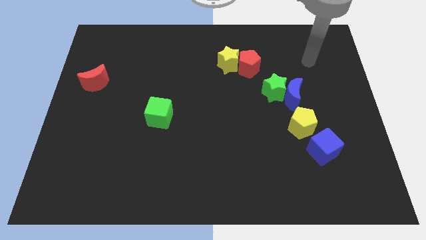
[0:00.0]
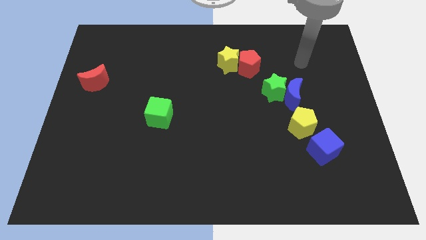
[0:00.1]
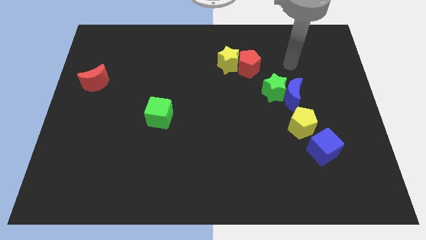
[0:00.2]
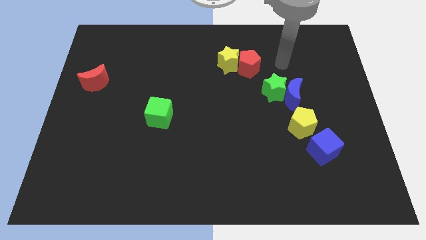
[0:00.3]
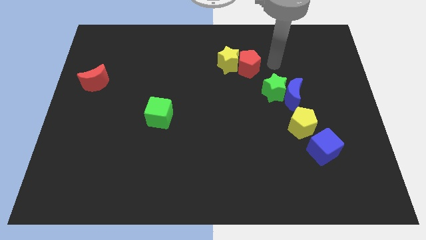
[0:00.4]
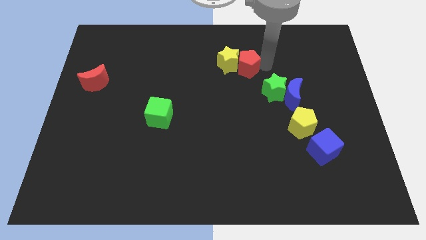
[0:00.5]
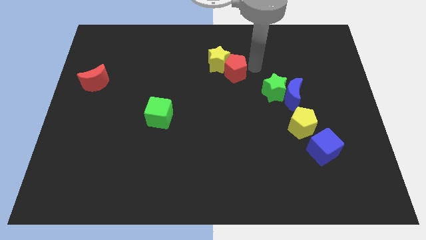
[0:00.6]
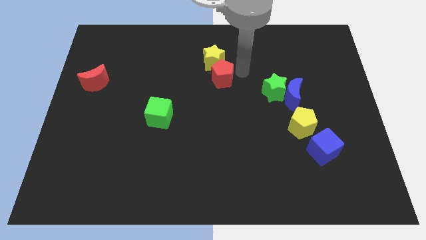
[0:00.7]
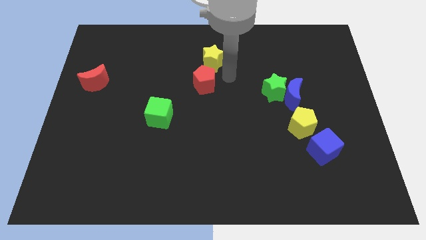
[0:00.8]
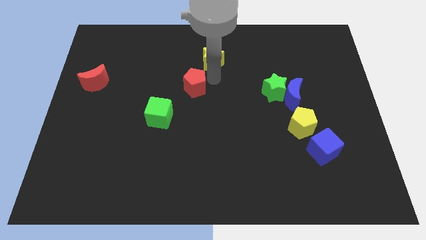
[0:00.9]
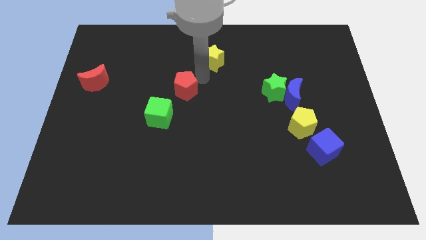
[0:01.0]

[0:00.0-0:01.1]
pull the yellow star apart from the red pentagon

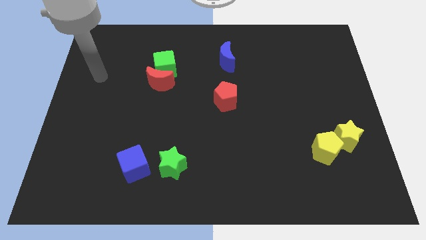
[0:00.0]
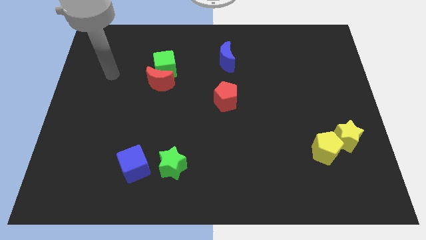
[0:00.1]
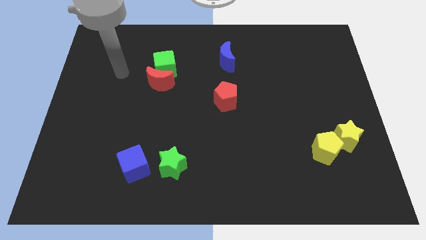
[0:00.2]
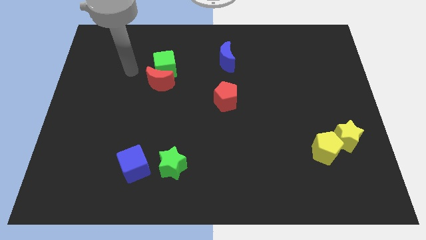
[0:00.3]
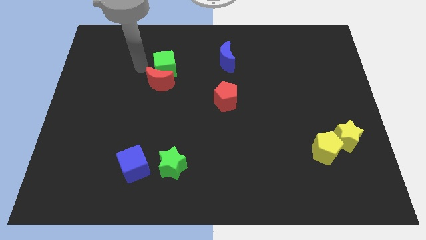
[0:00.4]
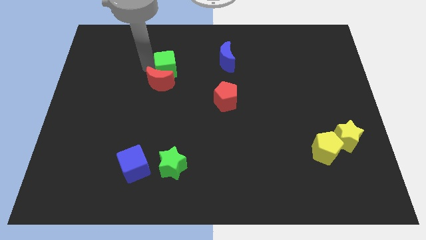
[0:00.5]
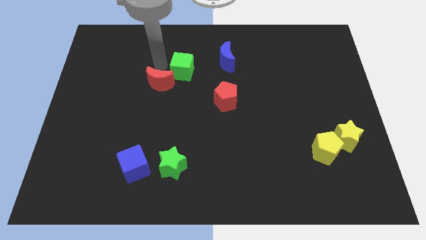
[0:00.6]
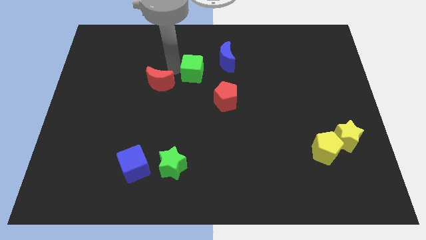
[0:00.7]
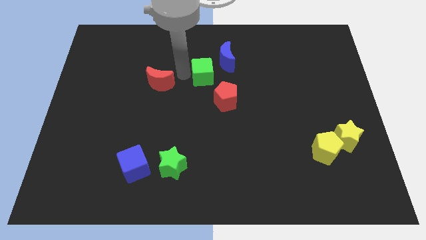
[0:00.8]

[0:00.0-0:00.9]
separate the red moon from the green cube

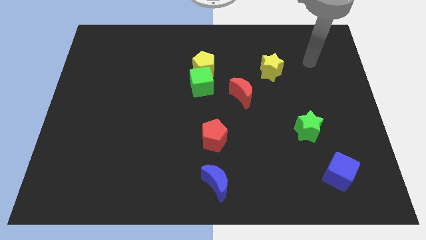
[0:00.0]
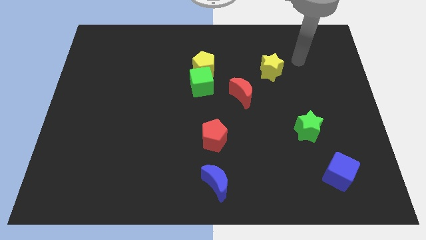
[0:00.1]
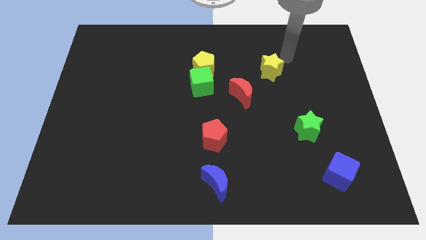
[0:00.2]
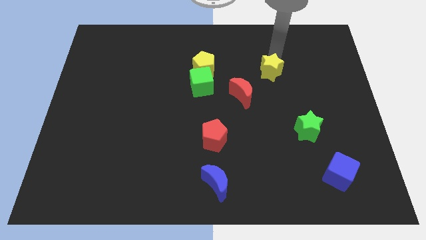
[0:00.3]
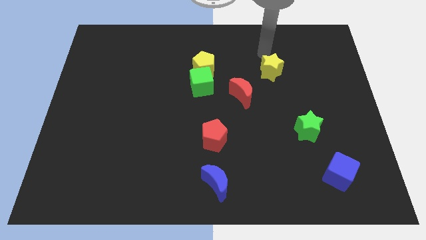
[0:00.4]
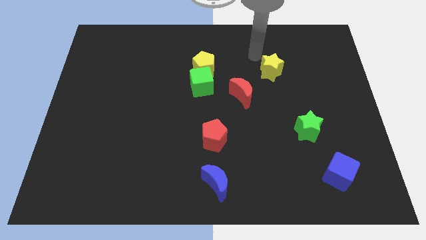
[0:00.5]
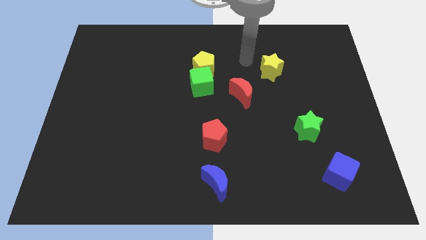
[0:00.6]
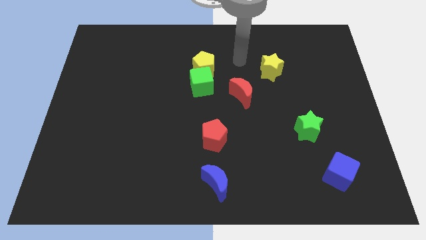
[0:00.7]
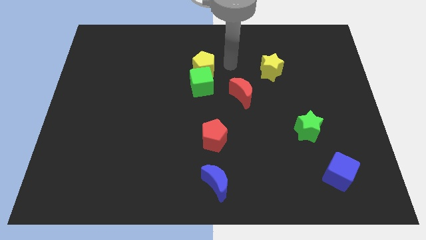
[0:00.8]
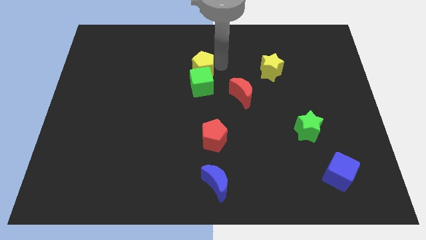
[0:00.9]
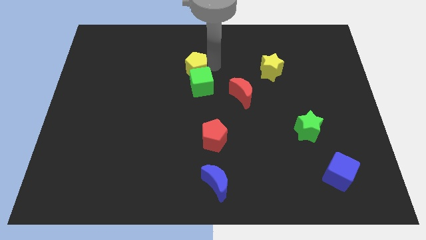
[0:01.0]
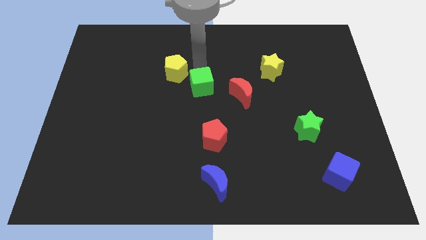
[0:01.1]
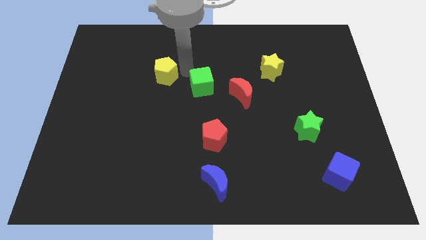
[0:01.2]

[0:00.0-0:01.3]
move the green cube away from the yellow pentagon

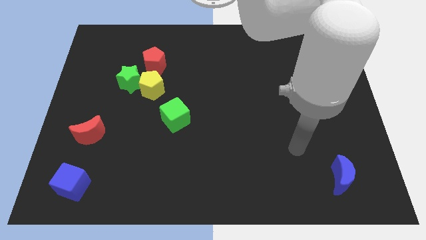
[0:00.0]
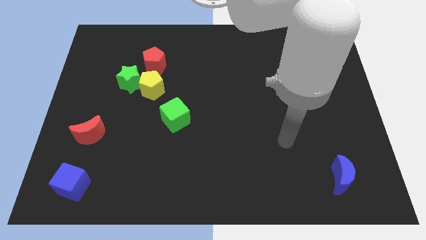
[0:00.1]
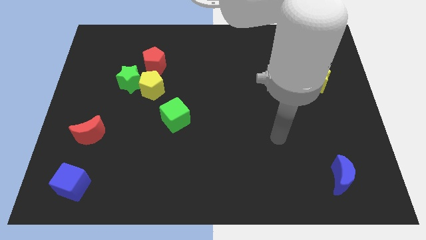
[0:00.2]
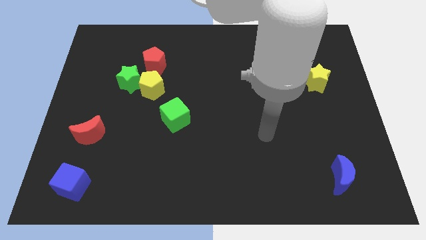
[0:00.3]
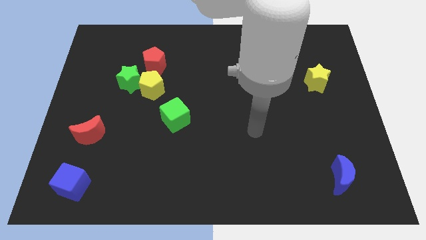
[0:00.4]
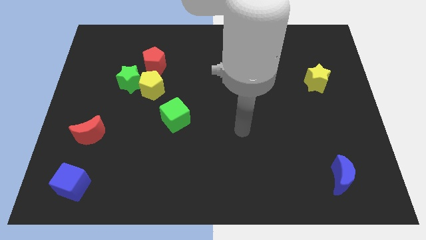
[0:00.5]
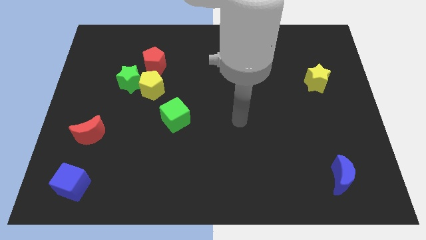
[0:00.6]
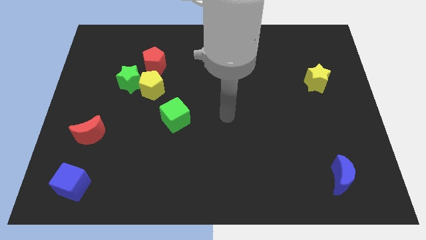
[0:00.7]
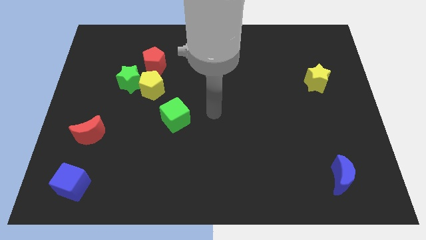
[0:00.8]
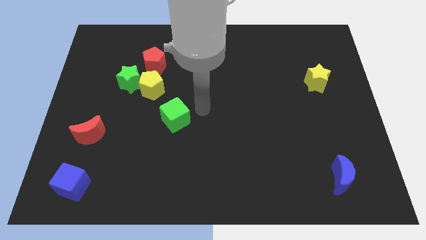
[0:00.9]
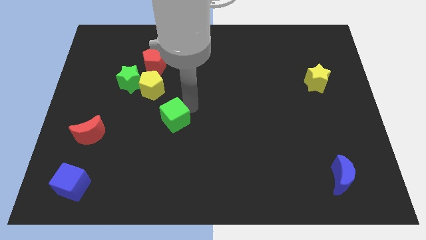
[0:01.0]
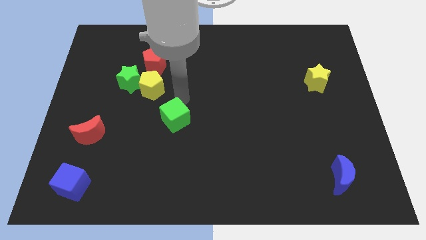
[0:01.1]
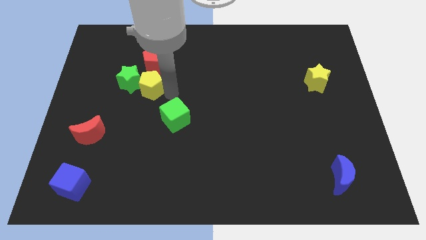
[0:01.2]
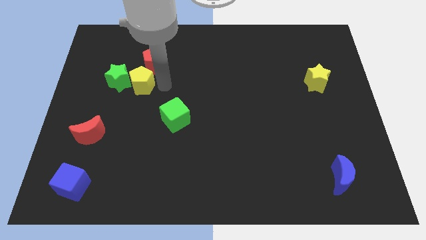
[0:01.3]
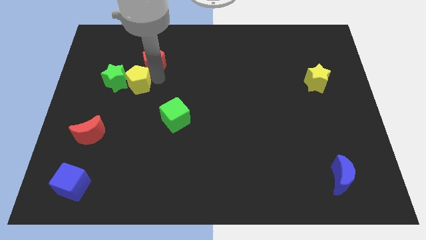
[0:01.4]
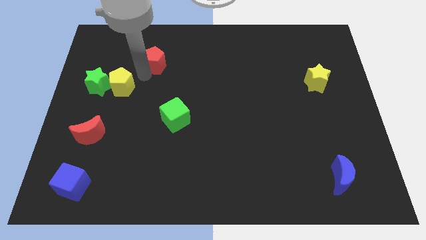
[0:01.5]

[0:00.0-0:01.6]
pull the green star apart from the yellow pentagon and red pentagon

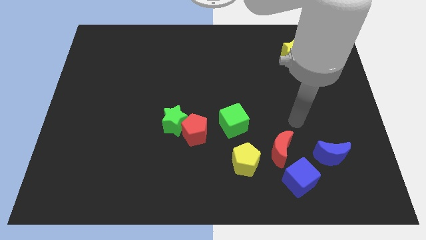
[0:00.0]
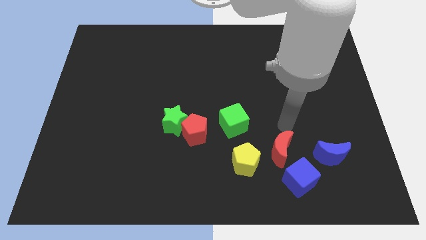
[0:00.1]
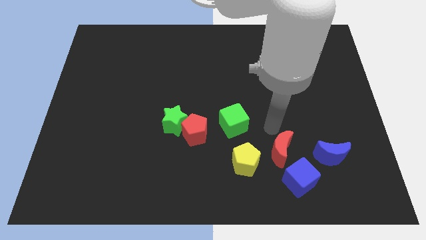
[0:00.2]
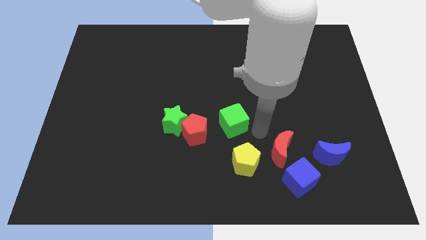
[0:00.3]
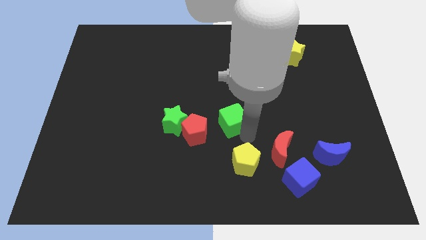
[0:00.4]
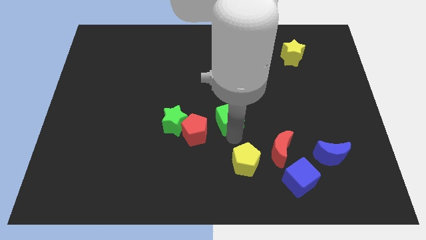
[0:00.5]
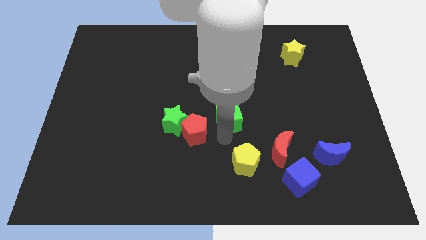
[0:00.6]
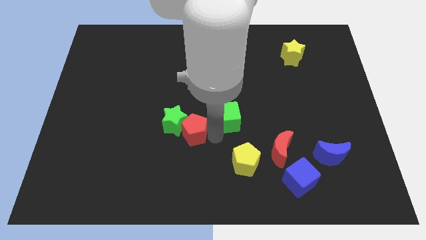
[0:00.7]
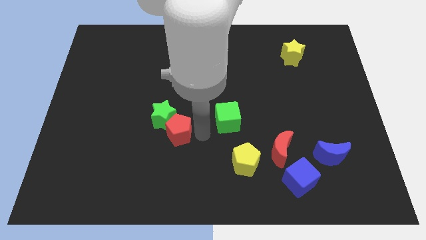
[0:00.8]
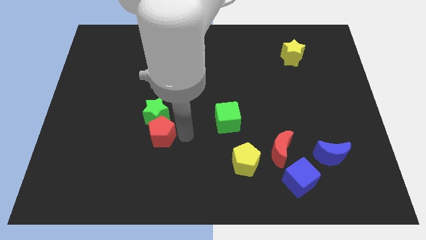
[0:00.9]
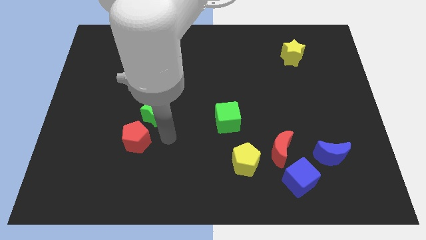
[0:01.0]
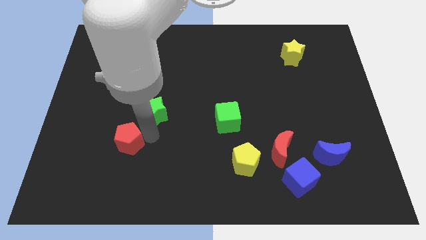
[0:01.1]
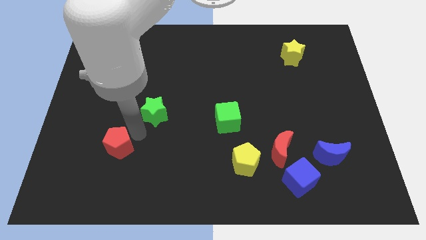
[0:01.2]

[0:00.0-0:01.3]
separate the green star from the red pentagon

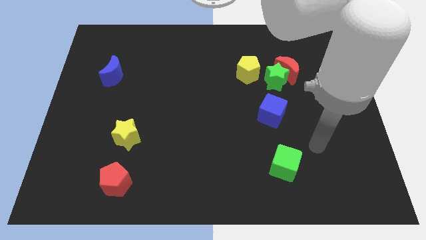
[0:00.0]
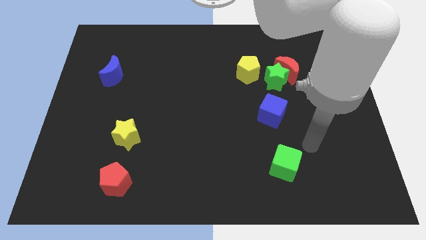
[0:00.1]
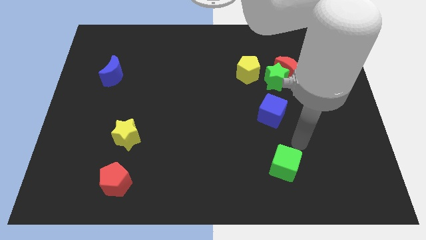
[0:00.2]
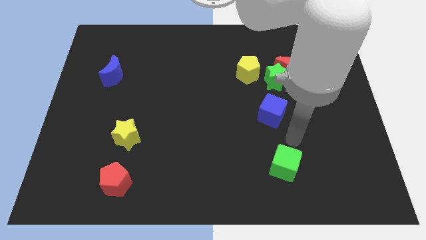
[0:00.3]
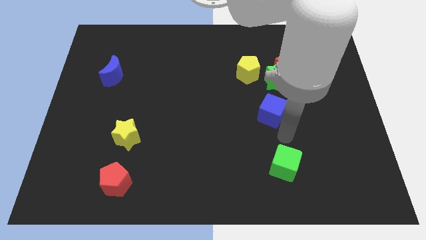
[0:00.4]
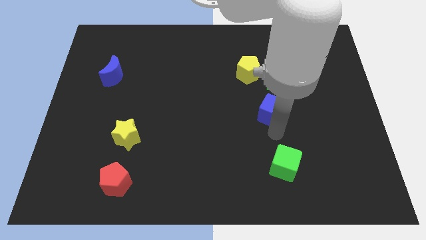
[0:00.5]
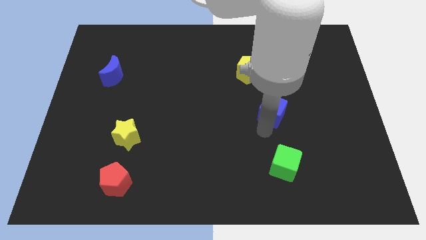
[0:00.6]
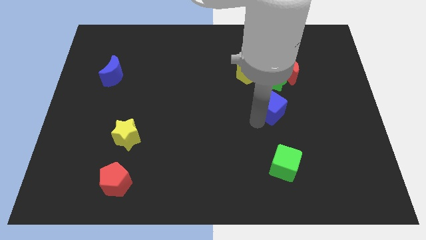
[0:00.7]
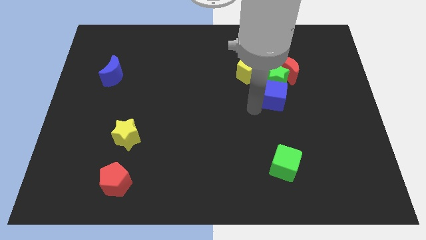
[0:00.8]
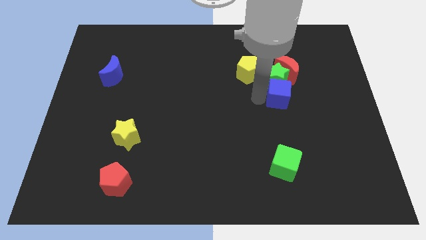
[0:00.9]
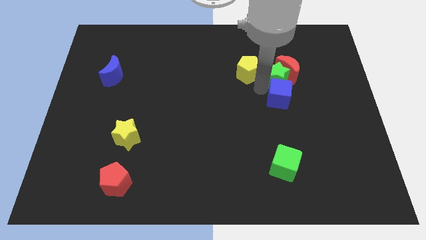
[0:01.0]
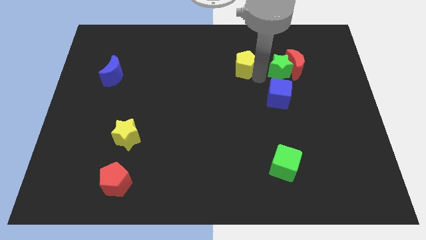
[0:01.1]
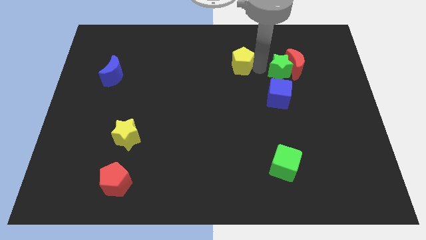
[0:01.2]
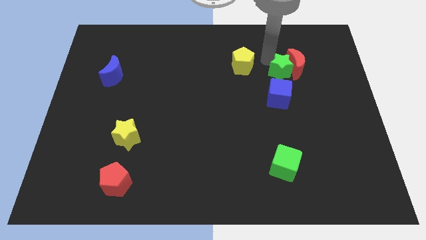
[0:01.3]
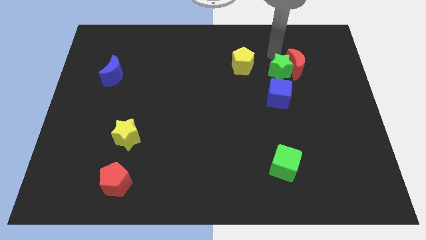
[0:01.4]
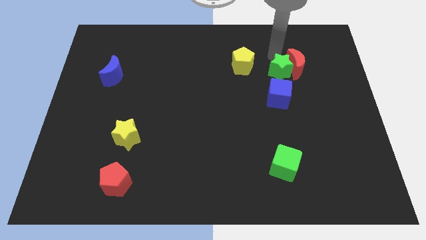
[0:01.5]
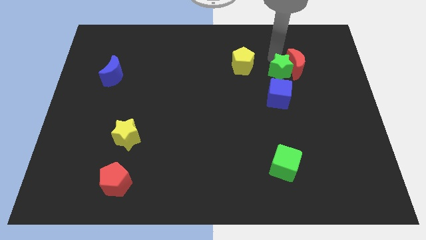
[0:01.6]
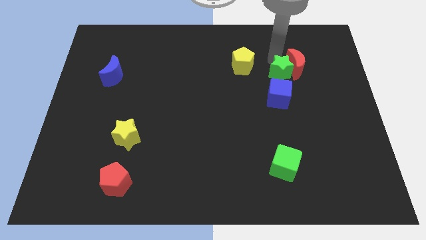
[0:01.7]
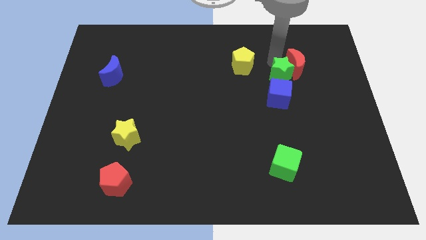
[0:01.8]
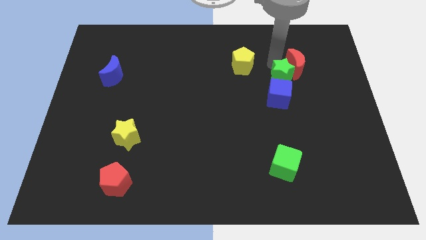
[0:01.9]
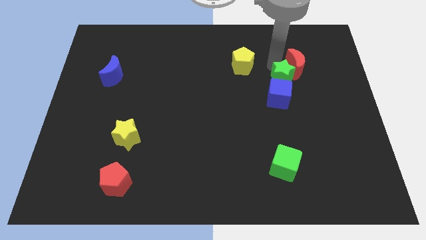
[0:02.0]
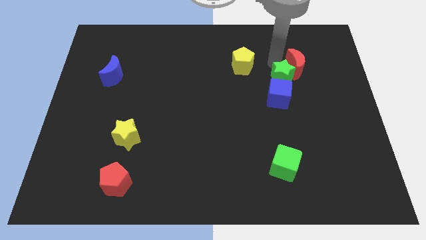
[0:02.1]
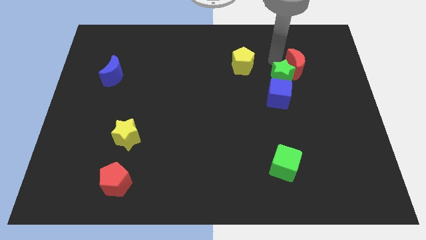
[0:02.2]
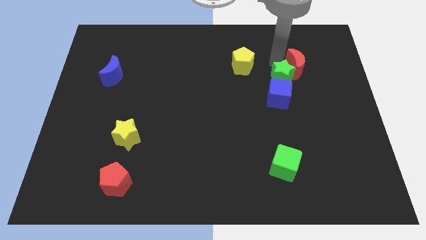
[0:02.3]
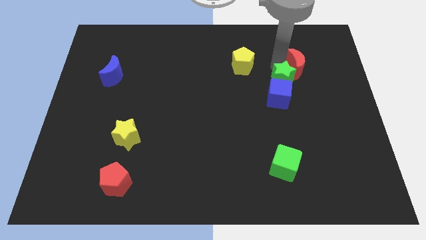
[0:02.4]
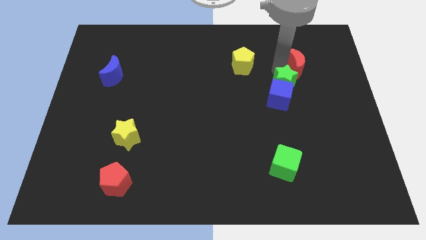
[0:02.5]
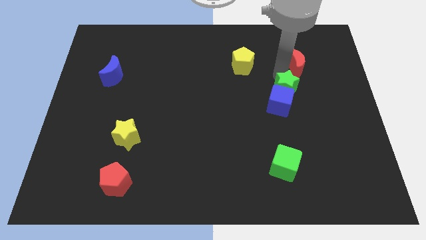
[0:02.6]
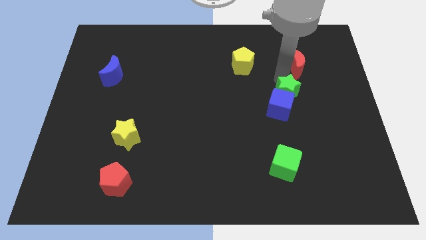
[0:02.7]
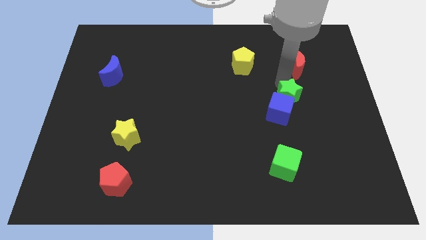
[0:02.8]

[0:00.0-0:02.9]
pull the green star apart from the red moon and yellow pentagon

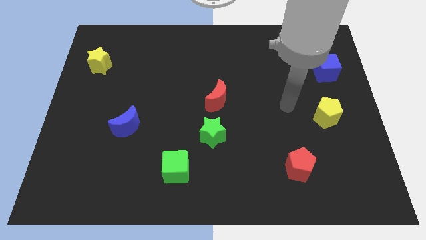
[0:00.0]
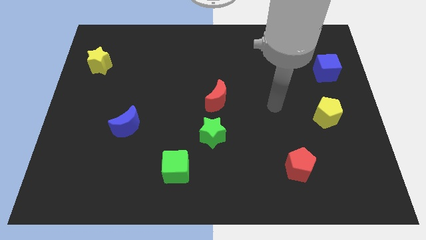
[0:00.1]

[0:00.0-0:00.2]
move the red moon away from the green star
